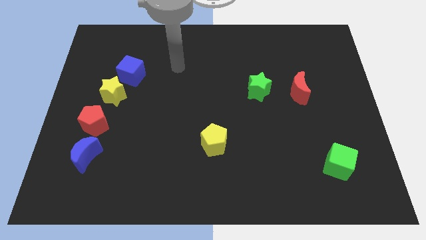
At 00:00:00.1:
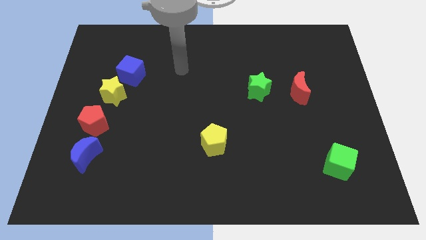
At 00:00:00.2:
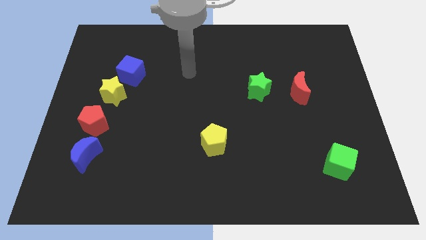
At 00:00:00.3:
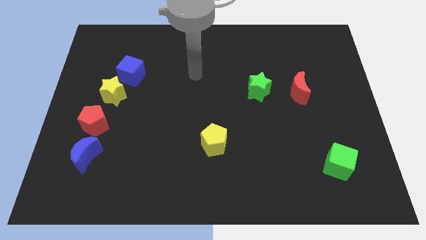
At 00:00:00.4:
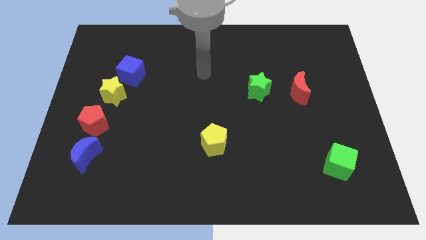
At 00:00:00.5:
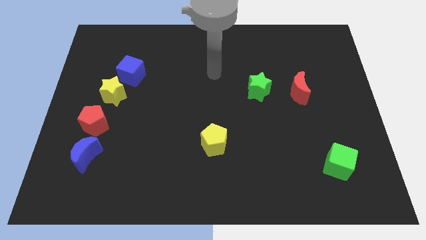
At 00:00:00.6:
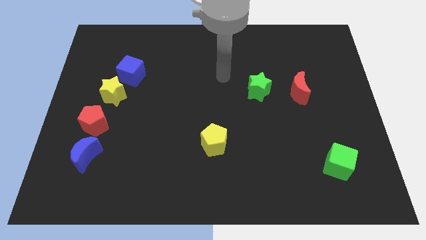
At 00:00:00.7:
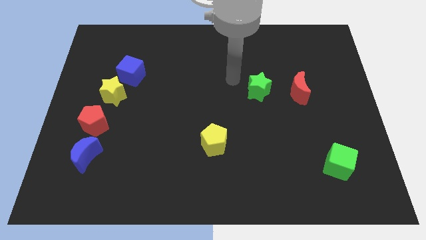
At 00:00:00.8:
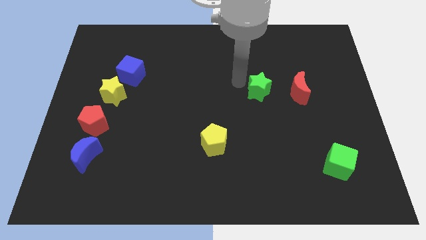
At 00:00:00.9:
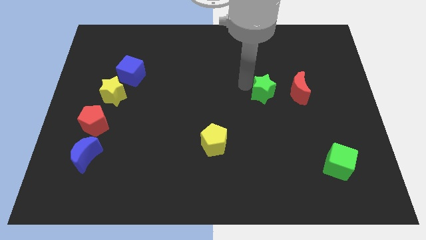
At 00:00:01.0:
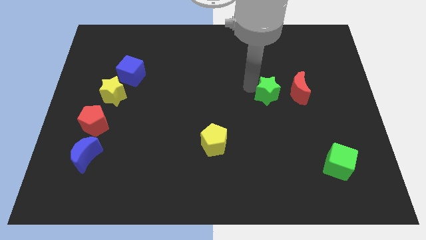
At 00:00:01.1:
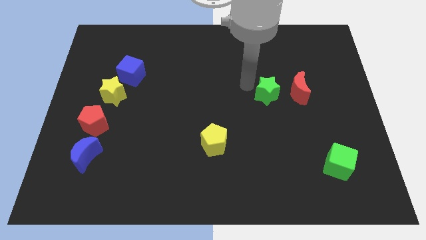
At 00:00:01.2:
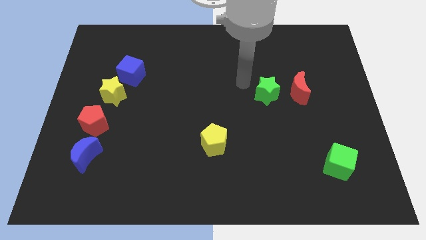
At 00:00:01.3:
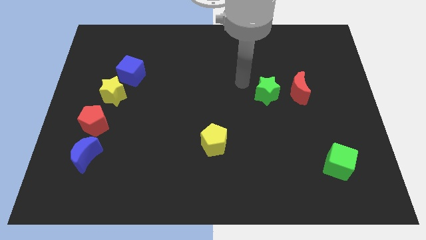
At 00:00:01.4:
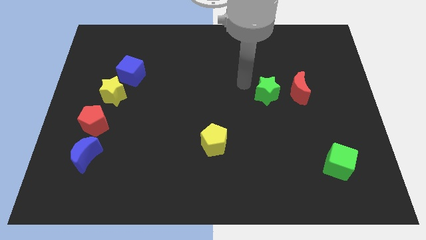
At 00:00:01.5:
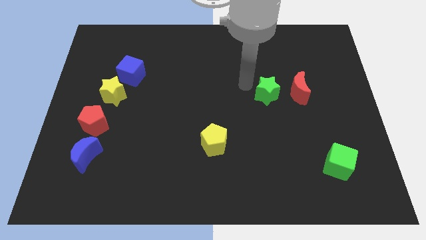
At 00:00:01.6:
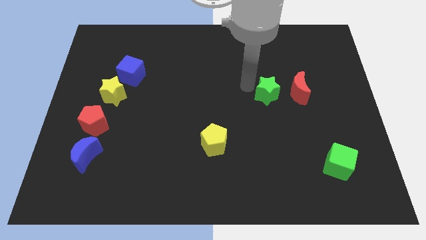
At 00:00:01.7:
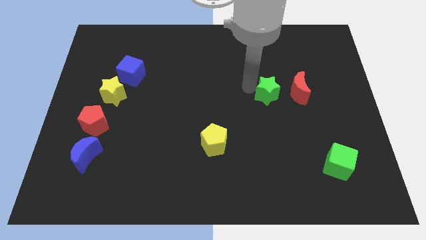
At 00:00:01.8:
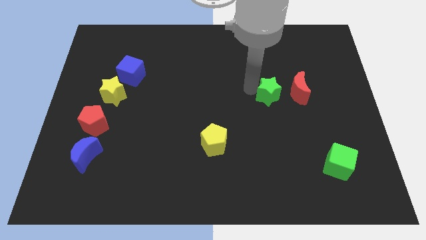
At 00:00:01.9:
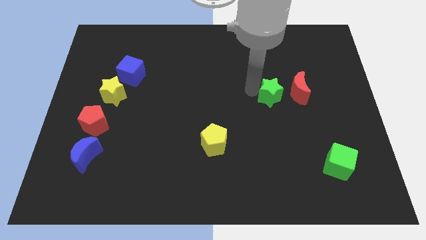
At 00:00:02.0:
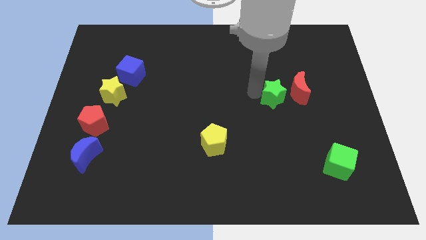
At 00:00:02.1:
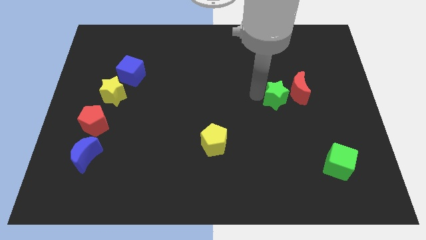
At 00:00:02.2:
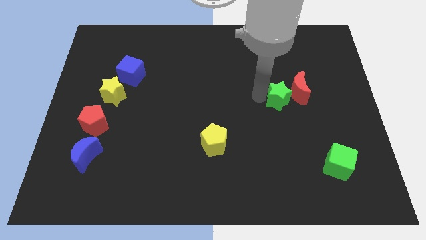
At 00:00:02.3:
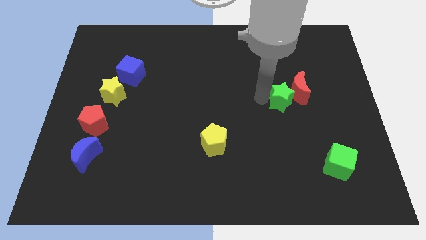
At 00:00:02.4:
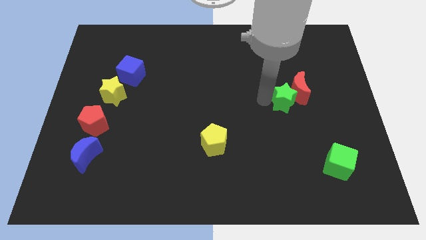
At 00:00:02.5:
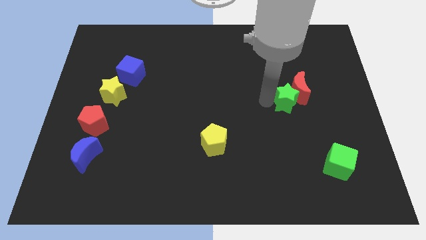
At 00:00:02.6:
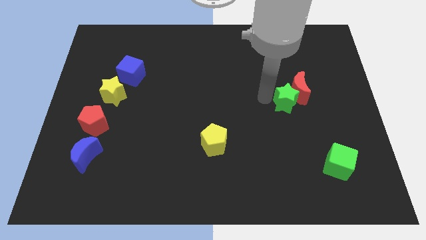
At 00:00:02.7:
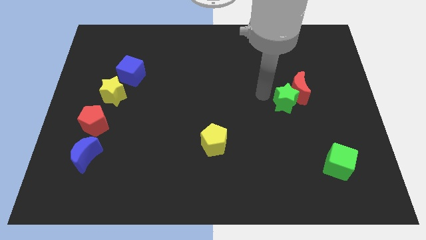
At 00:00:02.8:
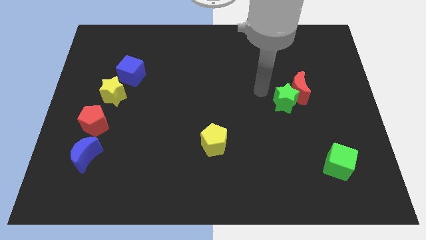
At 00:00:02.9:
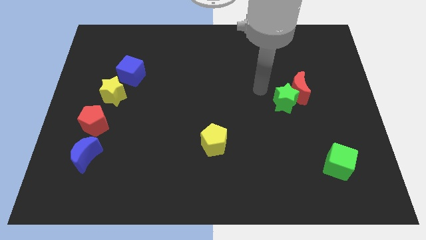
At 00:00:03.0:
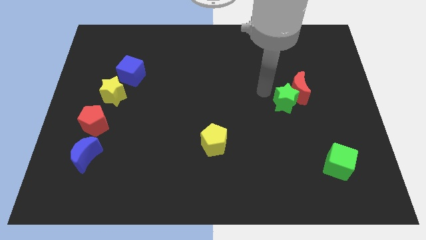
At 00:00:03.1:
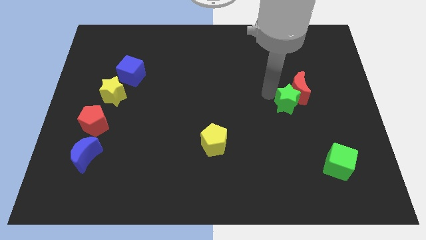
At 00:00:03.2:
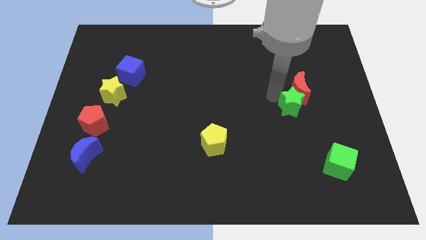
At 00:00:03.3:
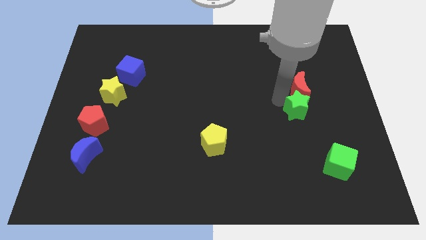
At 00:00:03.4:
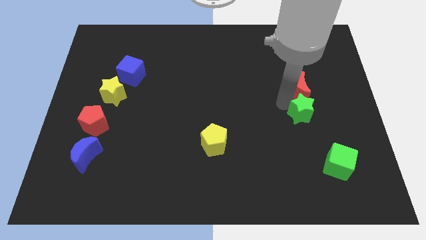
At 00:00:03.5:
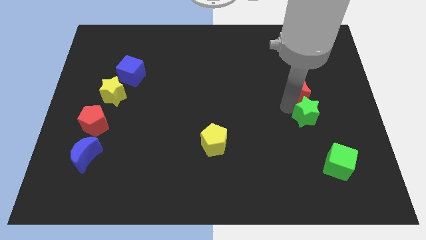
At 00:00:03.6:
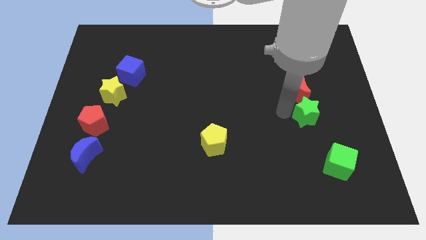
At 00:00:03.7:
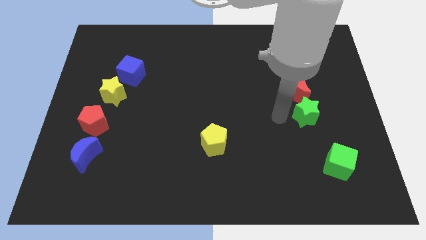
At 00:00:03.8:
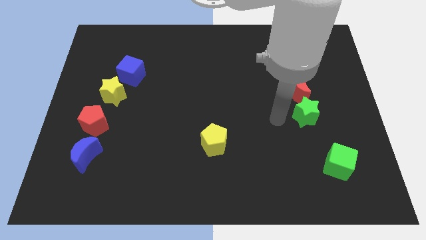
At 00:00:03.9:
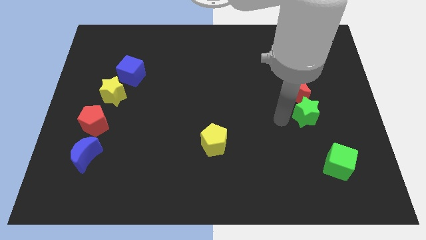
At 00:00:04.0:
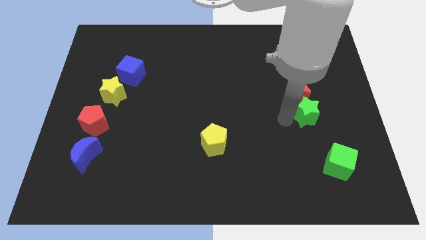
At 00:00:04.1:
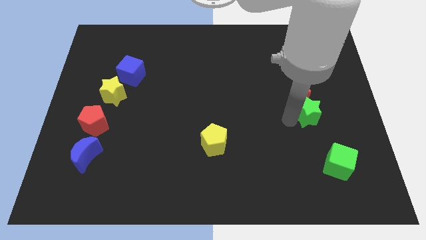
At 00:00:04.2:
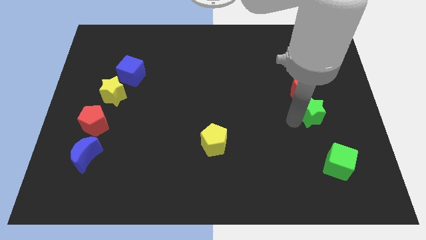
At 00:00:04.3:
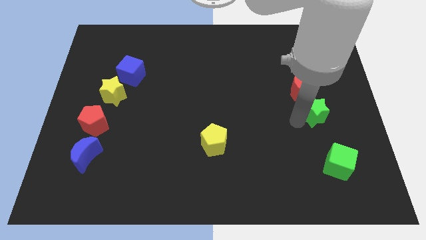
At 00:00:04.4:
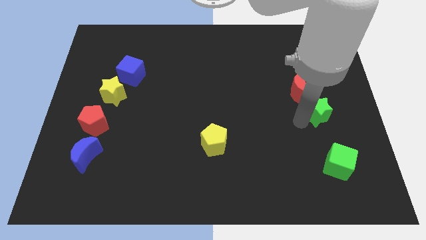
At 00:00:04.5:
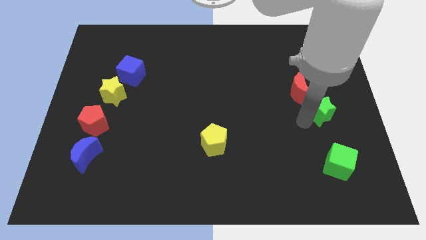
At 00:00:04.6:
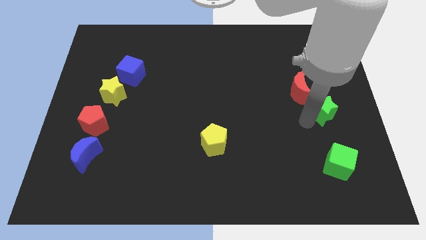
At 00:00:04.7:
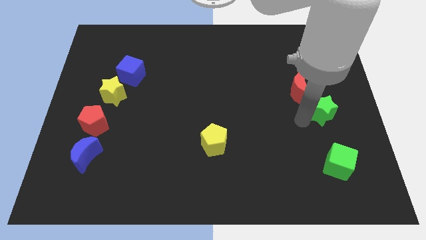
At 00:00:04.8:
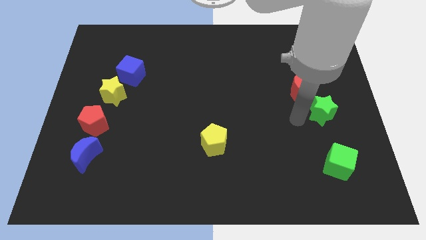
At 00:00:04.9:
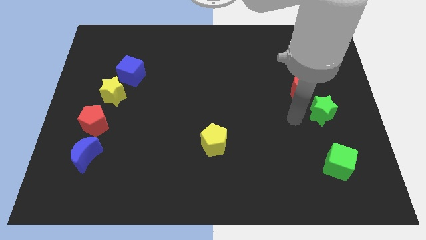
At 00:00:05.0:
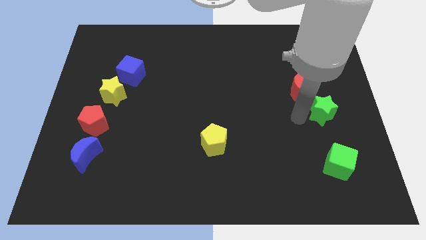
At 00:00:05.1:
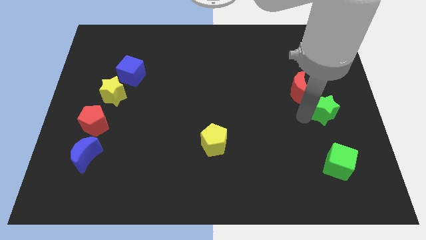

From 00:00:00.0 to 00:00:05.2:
move the green star to the right side
